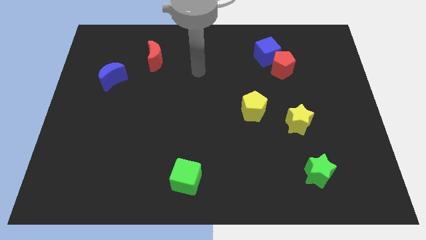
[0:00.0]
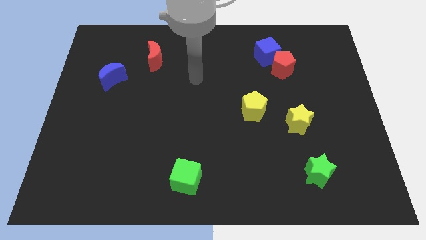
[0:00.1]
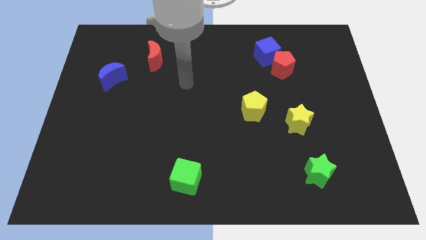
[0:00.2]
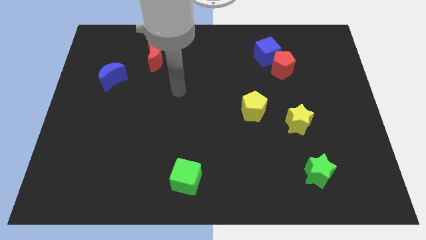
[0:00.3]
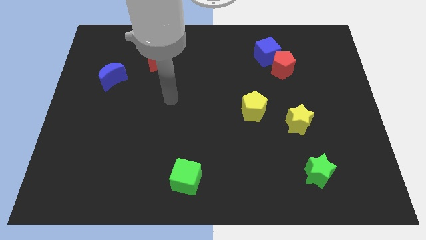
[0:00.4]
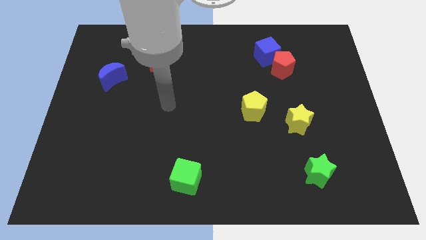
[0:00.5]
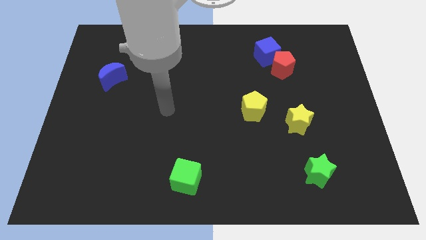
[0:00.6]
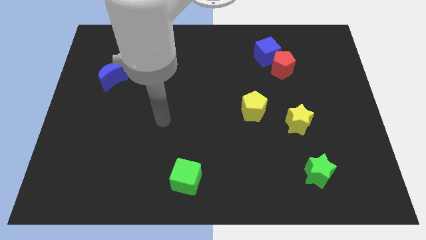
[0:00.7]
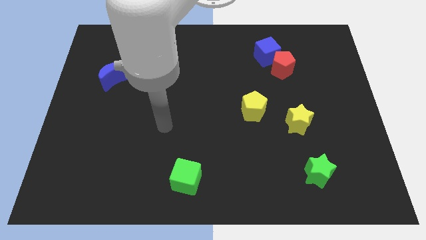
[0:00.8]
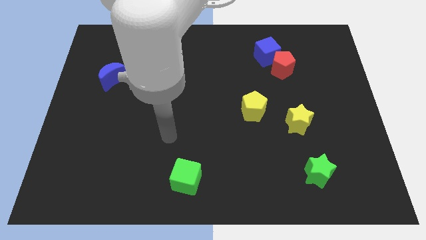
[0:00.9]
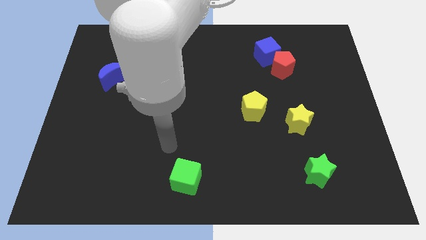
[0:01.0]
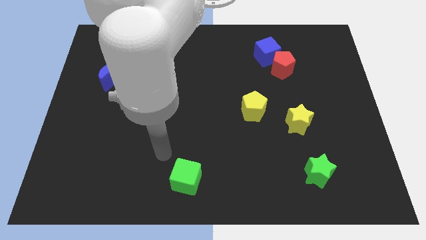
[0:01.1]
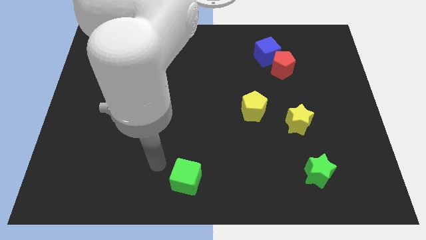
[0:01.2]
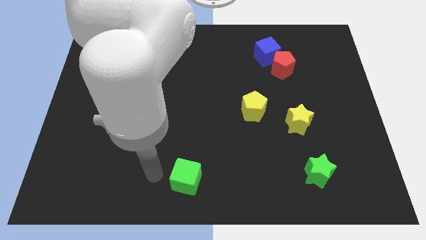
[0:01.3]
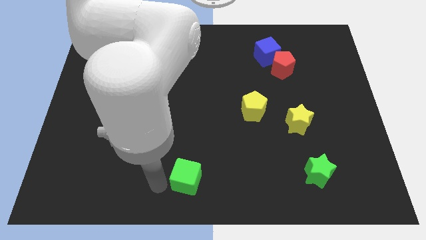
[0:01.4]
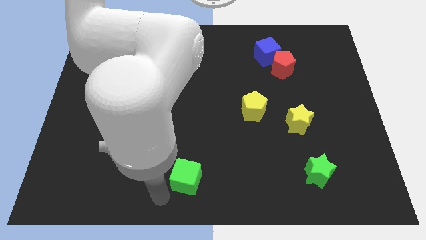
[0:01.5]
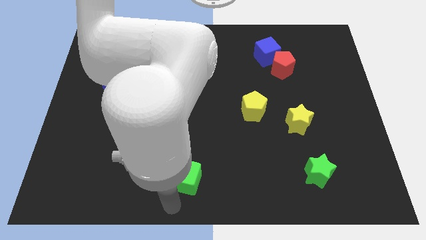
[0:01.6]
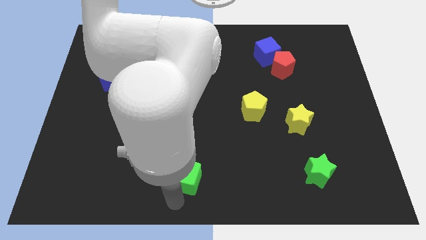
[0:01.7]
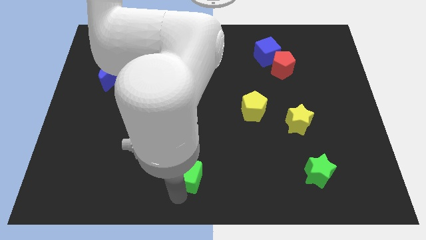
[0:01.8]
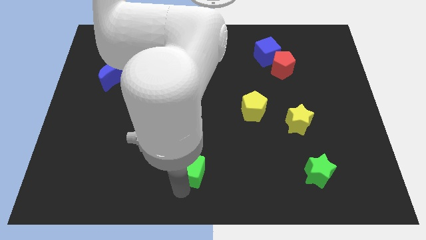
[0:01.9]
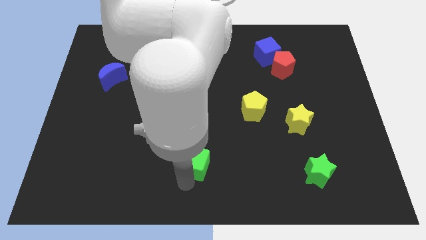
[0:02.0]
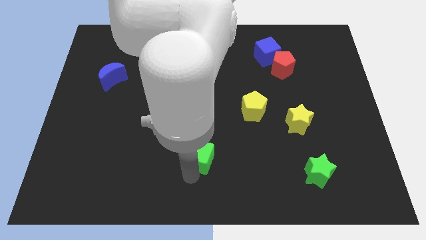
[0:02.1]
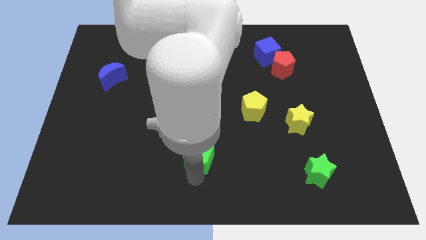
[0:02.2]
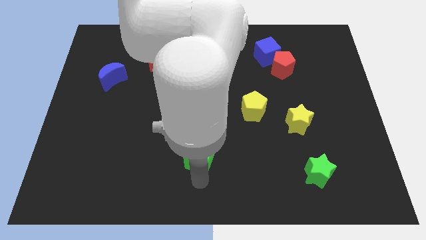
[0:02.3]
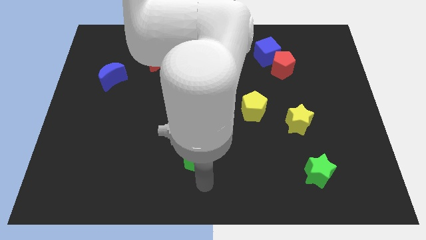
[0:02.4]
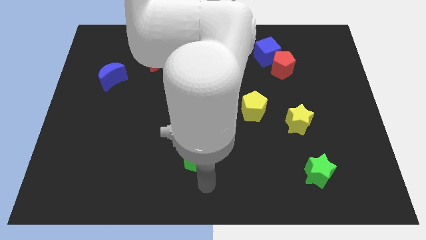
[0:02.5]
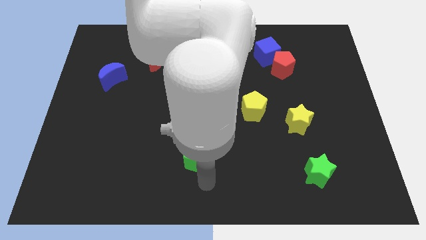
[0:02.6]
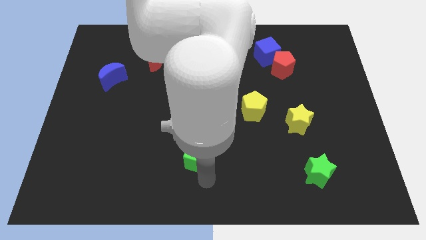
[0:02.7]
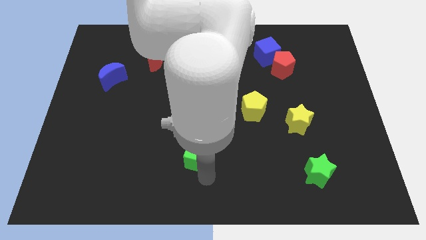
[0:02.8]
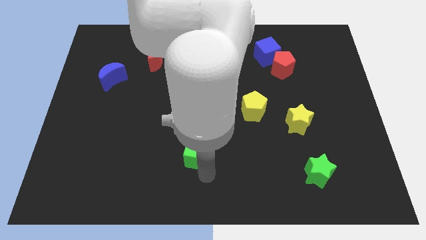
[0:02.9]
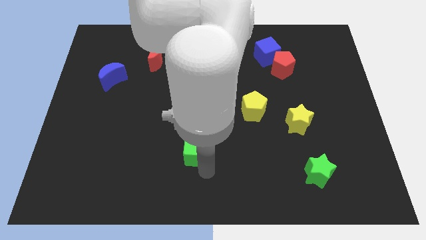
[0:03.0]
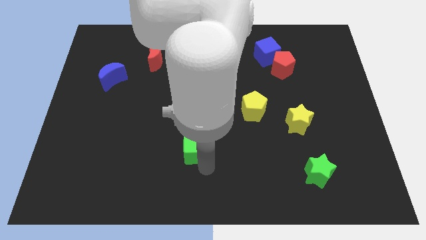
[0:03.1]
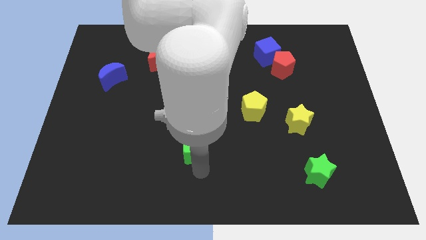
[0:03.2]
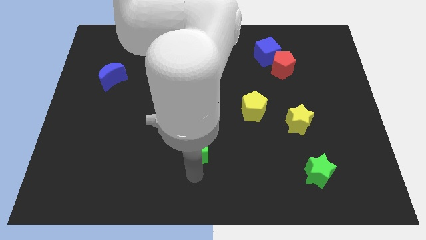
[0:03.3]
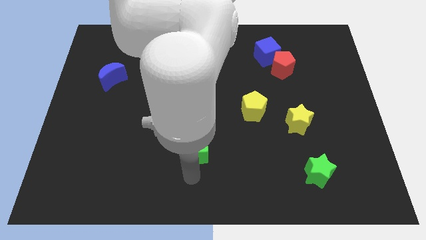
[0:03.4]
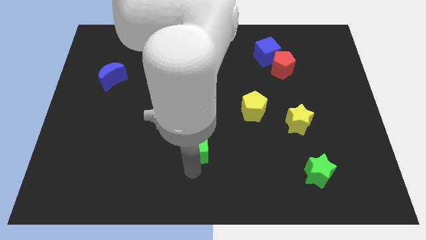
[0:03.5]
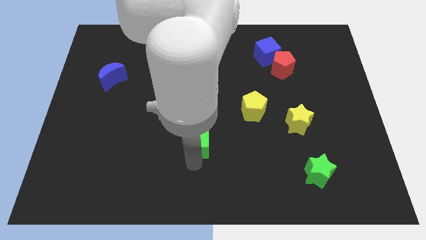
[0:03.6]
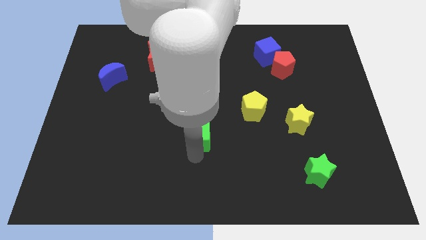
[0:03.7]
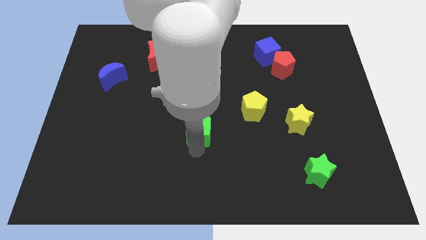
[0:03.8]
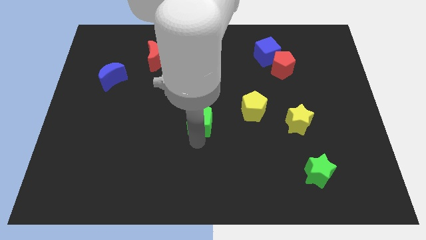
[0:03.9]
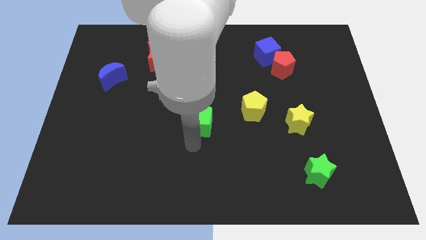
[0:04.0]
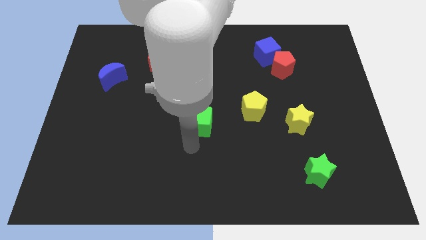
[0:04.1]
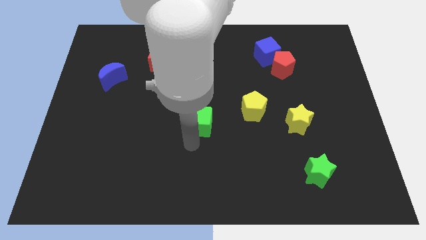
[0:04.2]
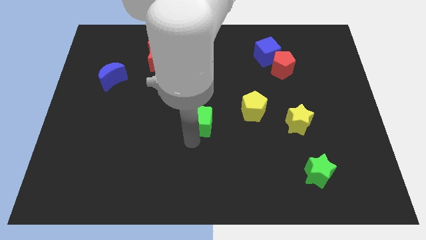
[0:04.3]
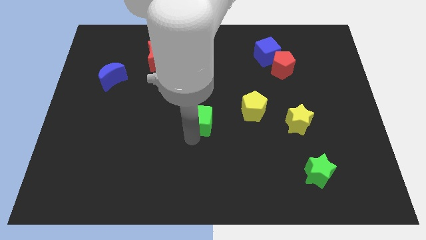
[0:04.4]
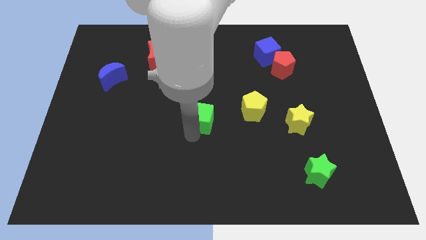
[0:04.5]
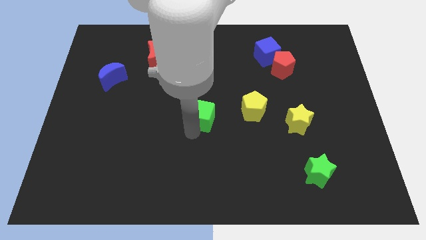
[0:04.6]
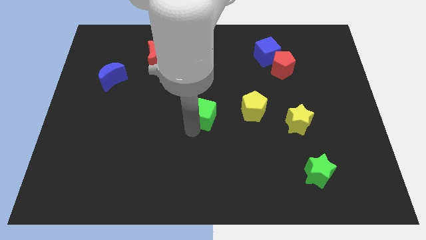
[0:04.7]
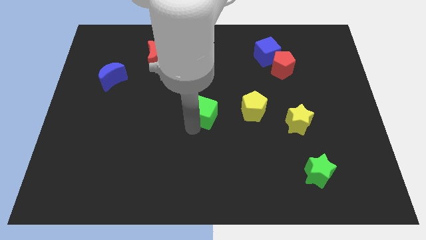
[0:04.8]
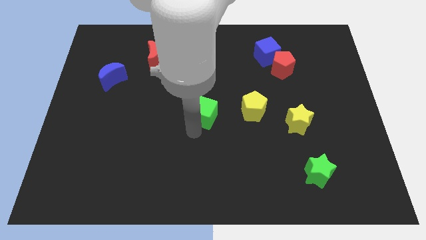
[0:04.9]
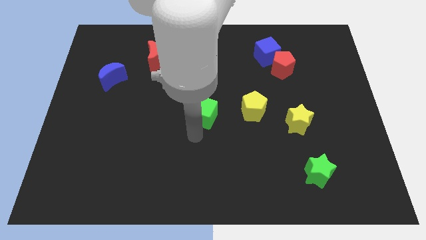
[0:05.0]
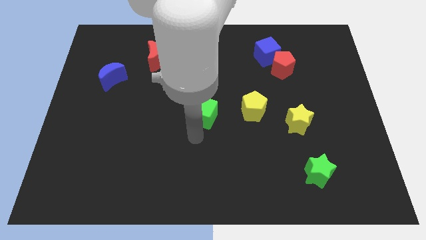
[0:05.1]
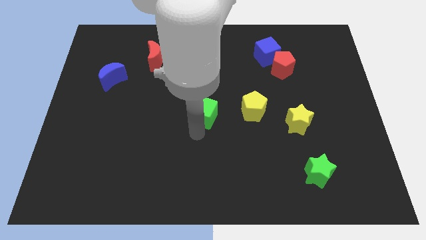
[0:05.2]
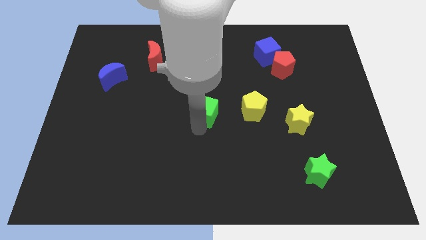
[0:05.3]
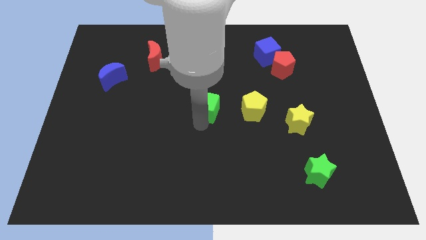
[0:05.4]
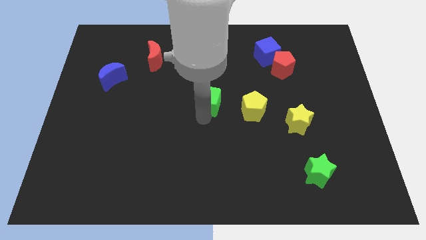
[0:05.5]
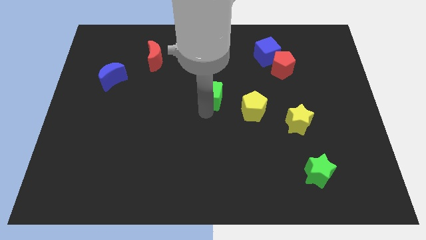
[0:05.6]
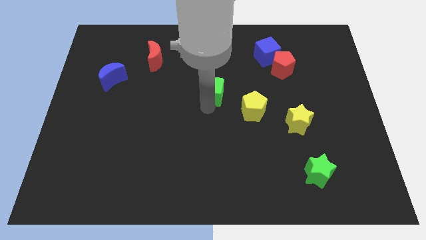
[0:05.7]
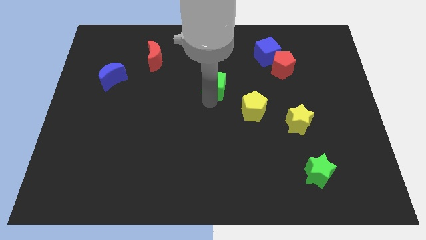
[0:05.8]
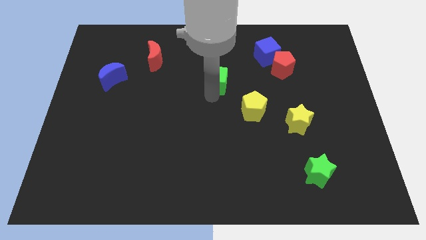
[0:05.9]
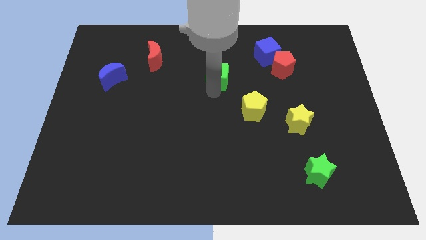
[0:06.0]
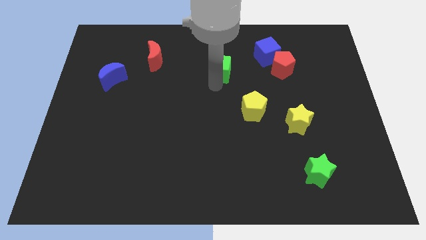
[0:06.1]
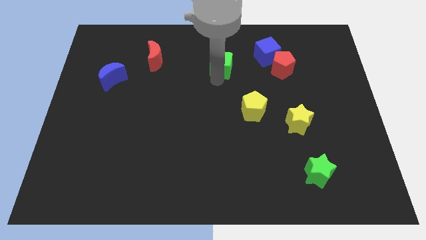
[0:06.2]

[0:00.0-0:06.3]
move the green cube to the left side of the blue cube

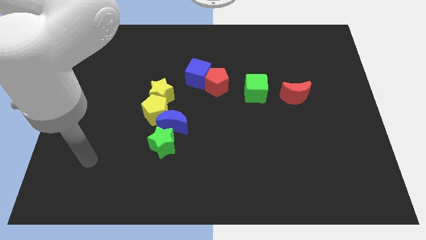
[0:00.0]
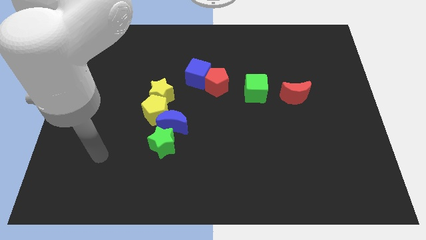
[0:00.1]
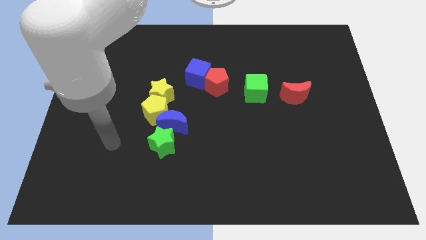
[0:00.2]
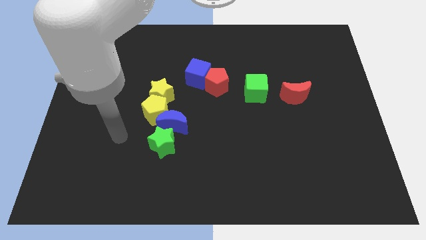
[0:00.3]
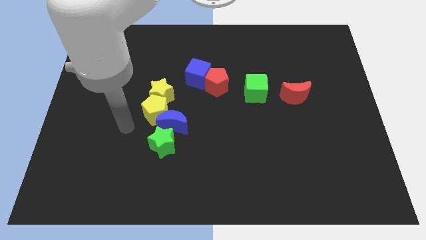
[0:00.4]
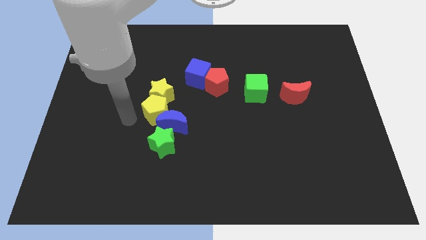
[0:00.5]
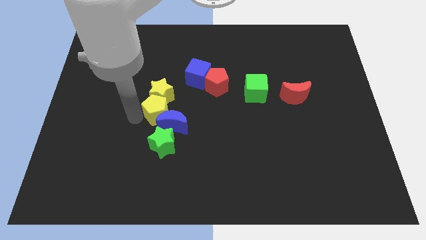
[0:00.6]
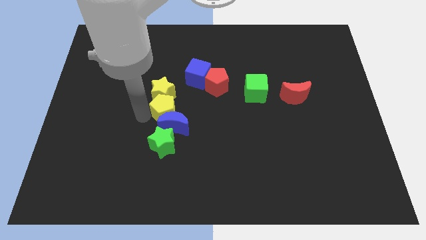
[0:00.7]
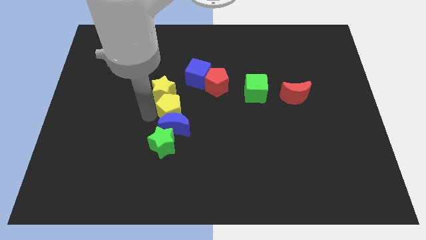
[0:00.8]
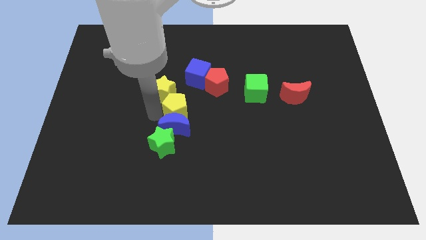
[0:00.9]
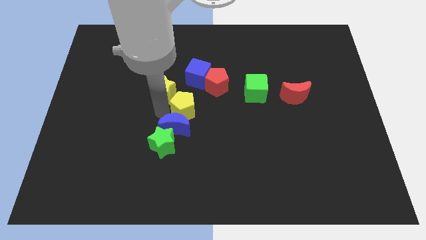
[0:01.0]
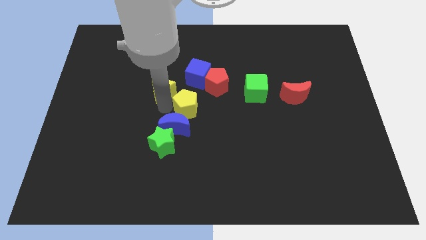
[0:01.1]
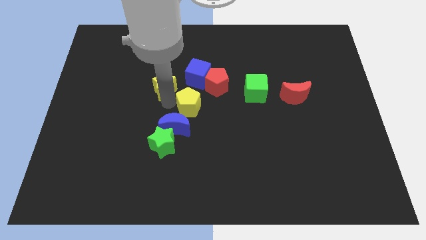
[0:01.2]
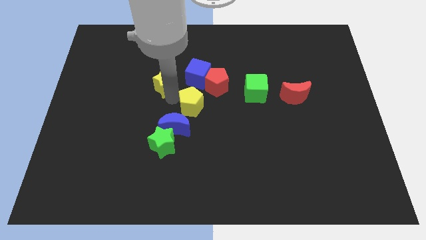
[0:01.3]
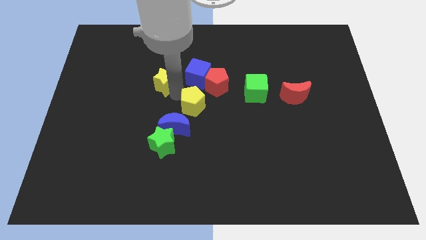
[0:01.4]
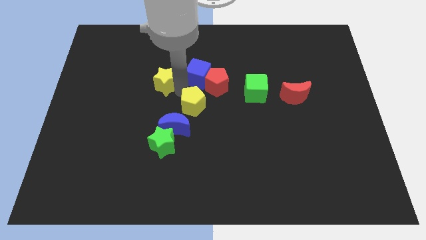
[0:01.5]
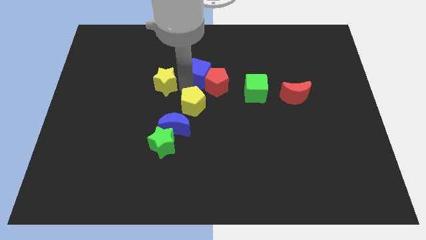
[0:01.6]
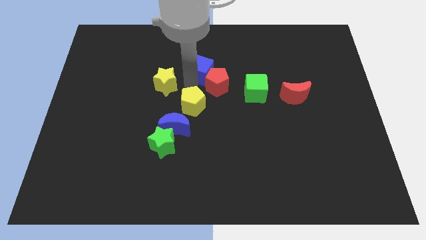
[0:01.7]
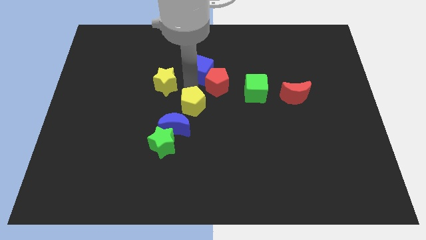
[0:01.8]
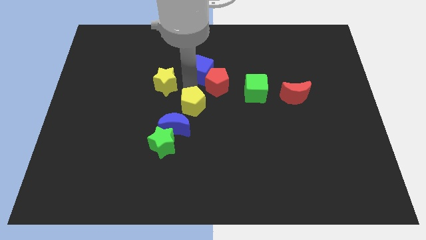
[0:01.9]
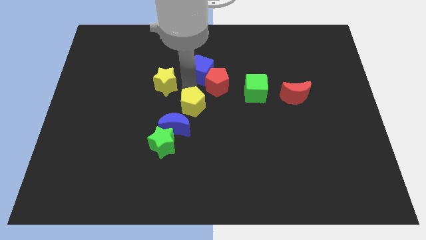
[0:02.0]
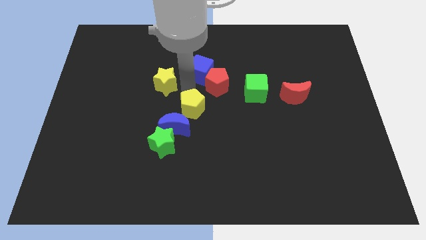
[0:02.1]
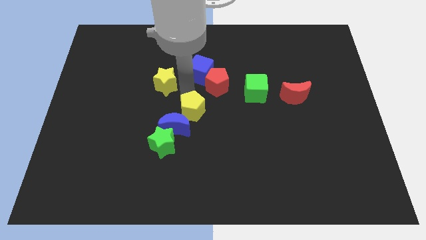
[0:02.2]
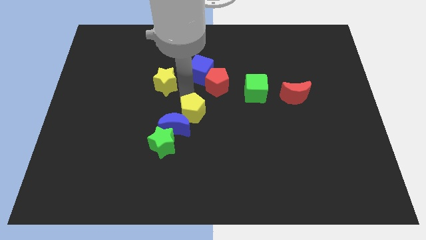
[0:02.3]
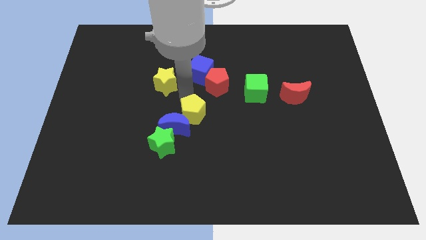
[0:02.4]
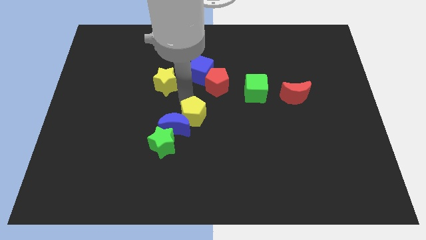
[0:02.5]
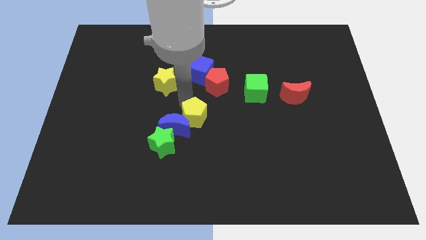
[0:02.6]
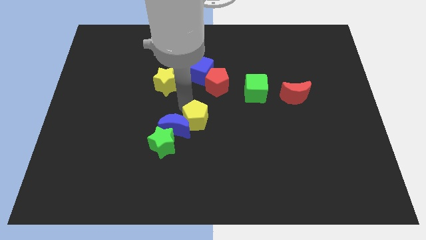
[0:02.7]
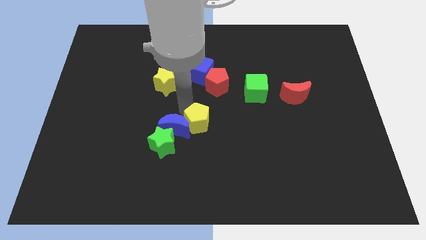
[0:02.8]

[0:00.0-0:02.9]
put the yellow pentagon to the bottom right side of the blue moon
